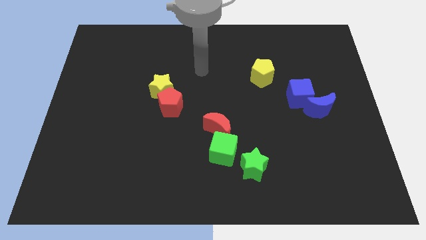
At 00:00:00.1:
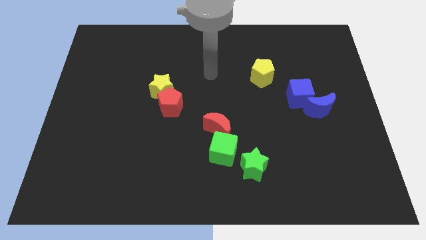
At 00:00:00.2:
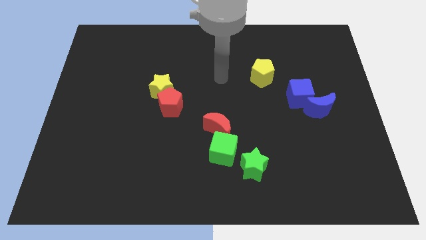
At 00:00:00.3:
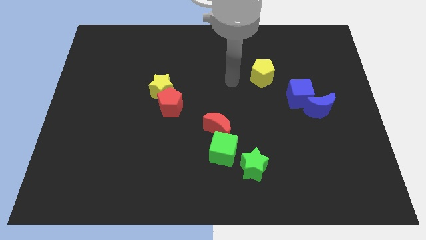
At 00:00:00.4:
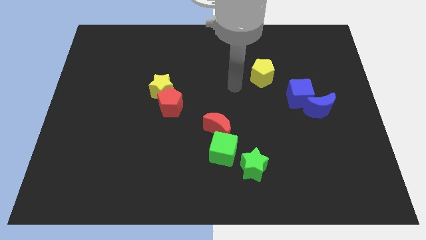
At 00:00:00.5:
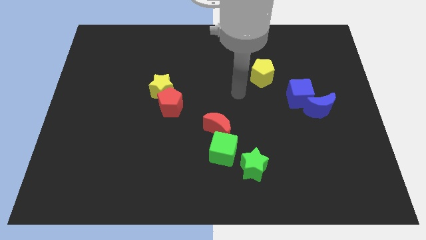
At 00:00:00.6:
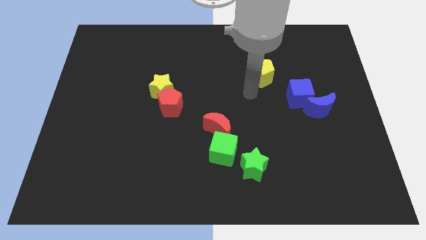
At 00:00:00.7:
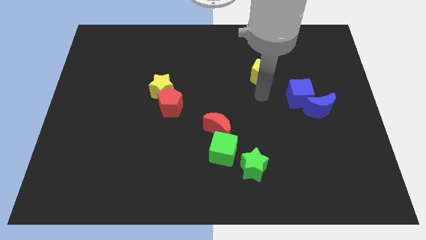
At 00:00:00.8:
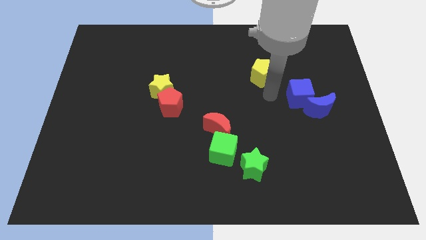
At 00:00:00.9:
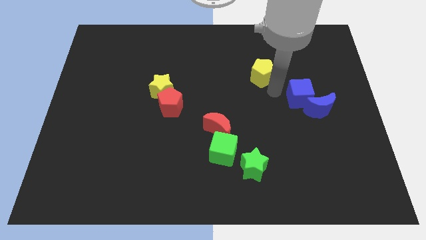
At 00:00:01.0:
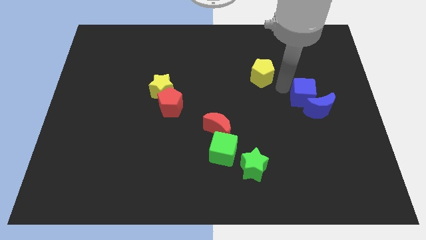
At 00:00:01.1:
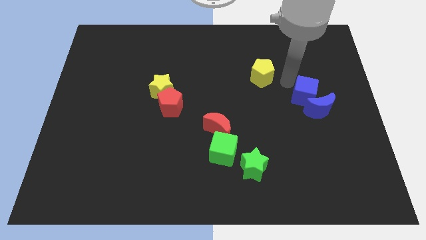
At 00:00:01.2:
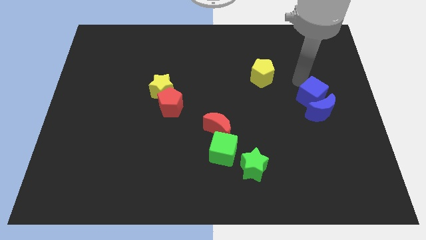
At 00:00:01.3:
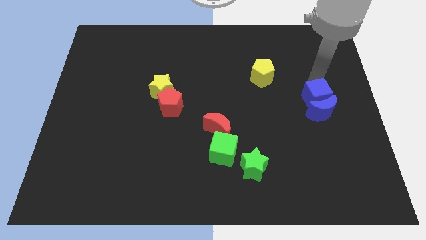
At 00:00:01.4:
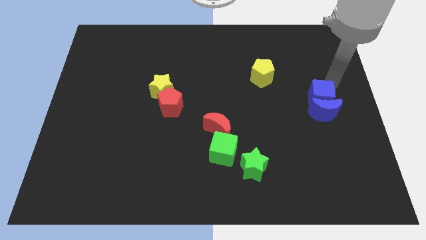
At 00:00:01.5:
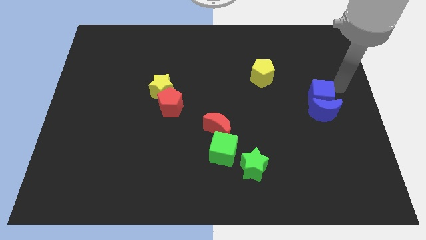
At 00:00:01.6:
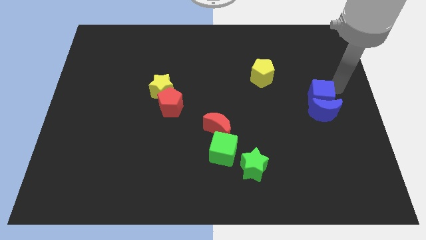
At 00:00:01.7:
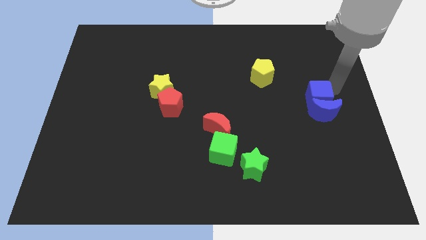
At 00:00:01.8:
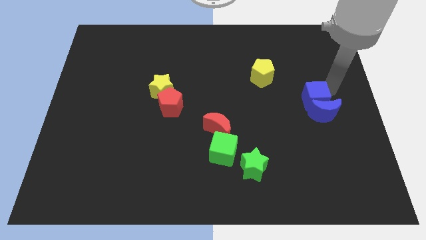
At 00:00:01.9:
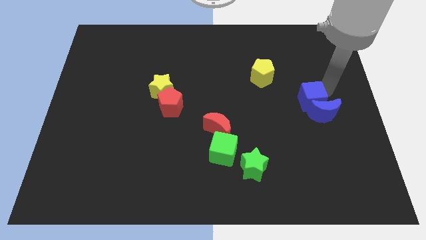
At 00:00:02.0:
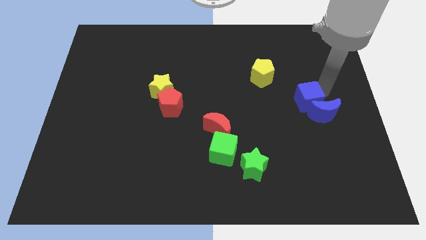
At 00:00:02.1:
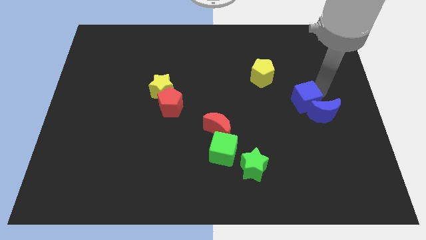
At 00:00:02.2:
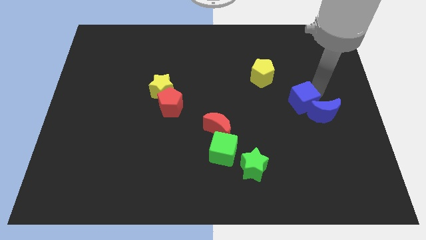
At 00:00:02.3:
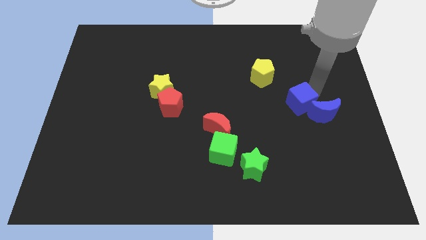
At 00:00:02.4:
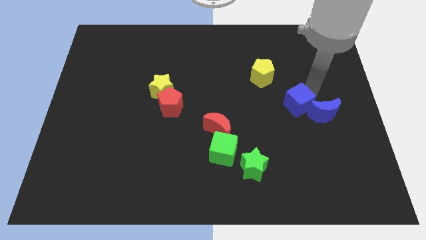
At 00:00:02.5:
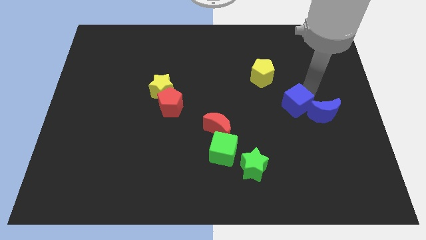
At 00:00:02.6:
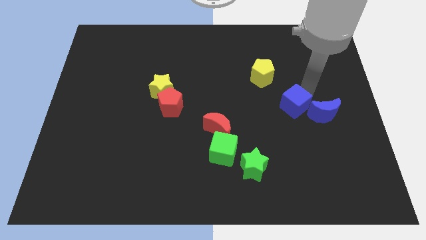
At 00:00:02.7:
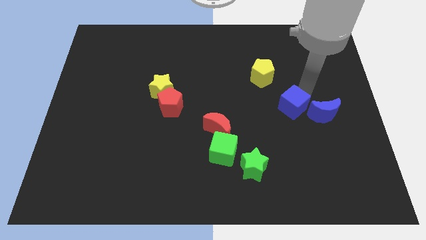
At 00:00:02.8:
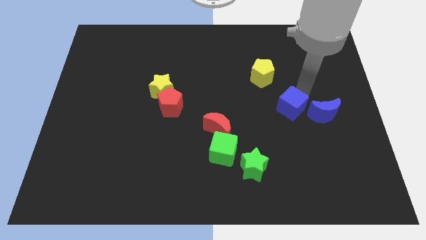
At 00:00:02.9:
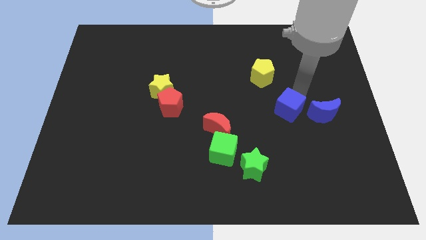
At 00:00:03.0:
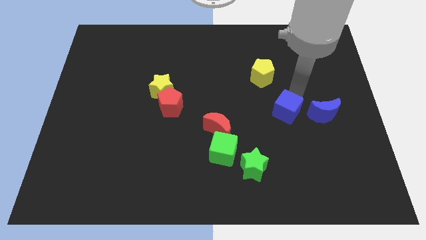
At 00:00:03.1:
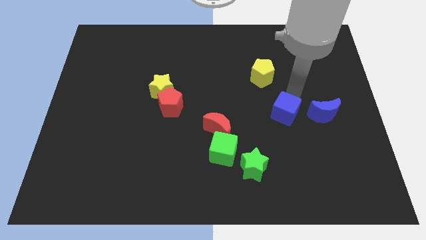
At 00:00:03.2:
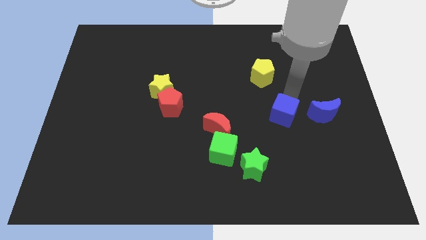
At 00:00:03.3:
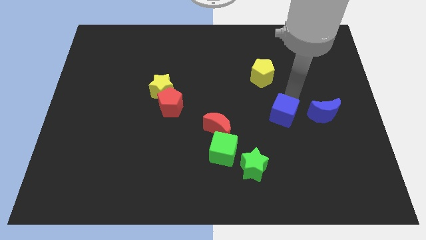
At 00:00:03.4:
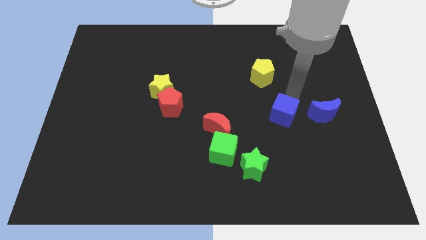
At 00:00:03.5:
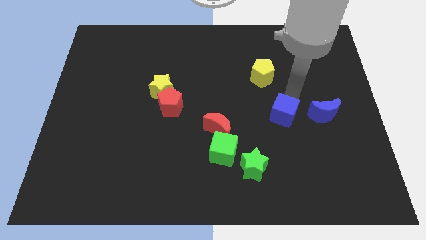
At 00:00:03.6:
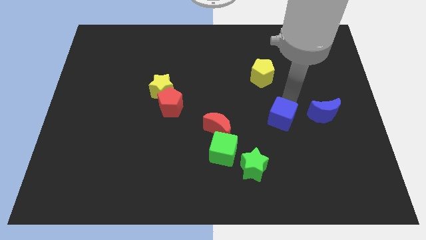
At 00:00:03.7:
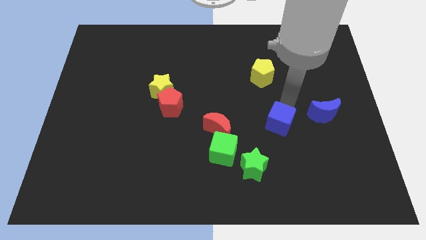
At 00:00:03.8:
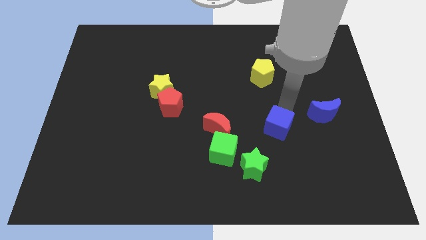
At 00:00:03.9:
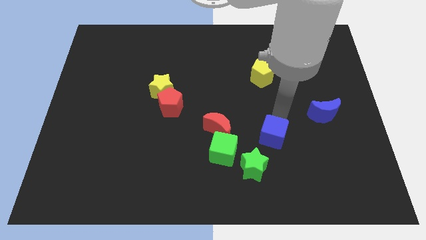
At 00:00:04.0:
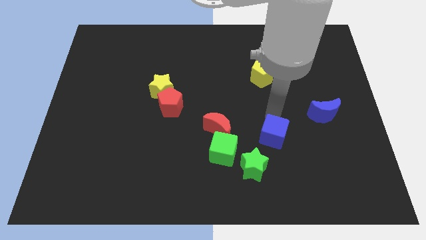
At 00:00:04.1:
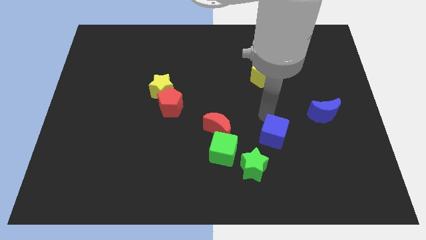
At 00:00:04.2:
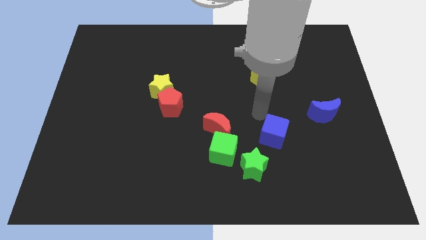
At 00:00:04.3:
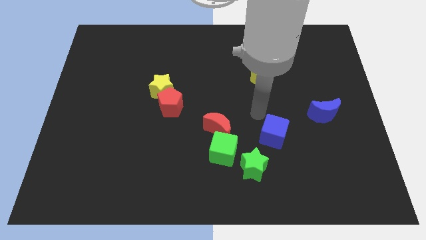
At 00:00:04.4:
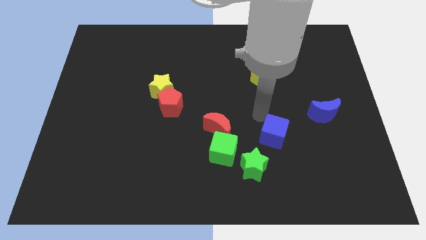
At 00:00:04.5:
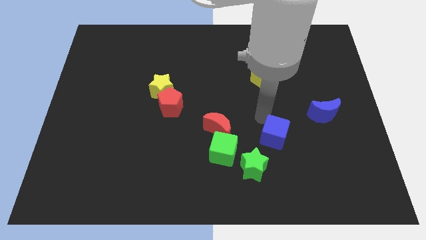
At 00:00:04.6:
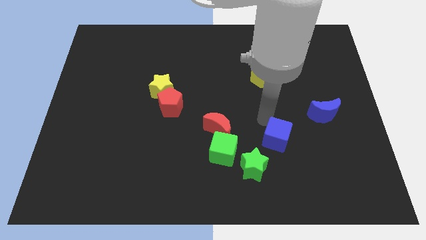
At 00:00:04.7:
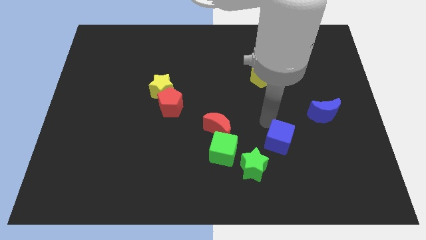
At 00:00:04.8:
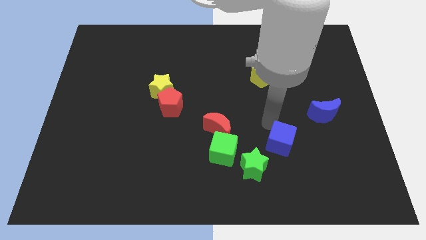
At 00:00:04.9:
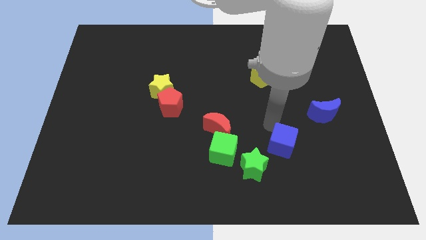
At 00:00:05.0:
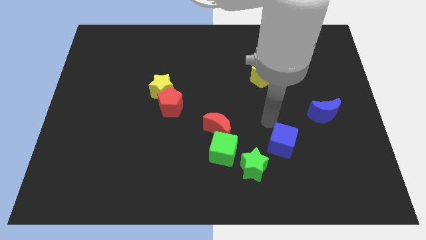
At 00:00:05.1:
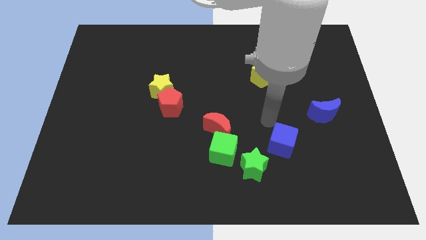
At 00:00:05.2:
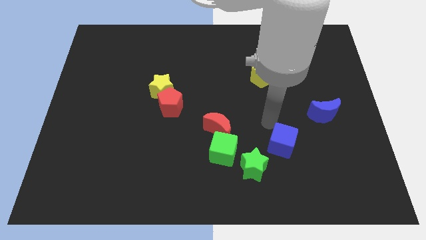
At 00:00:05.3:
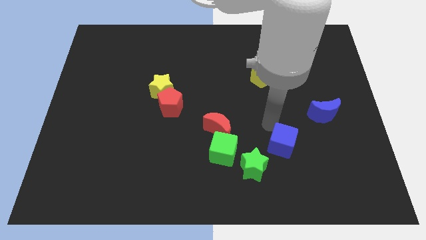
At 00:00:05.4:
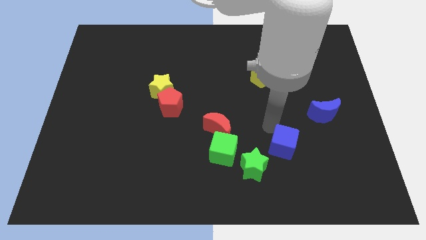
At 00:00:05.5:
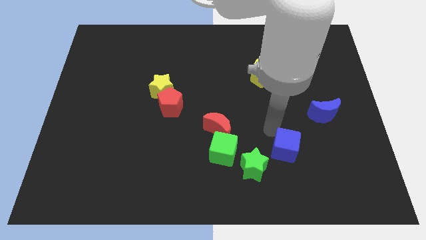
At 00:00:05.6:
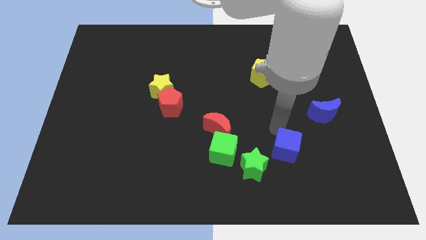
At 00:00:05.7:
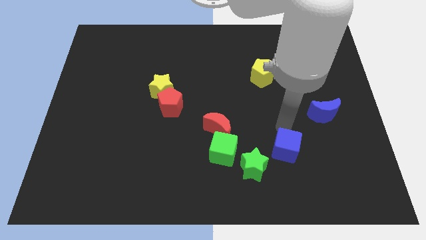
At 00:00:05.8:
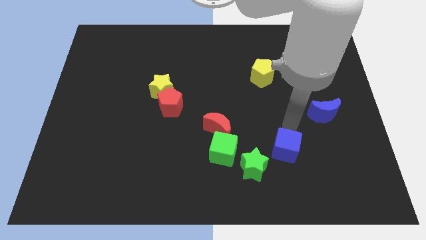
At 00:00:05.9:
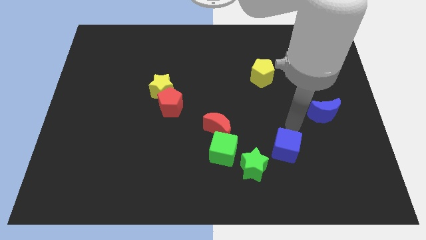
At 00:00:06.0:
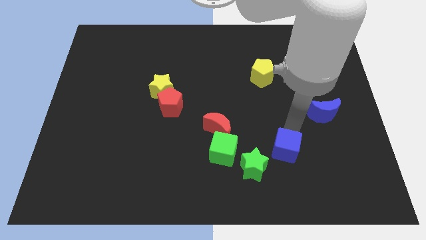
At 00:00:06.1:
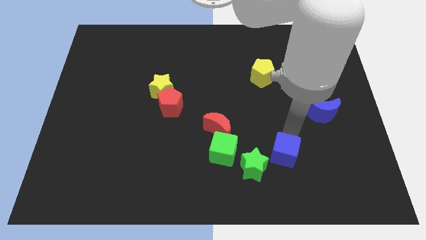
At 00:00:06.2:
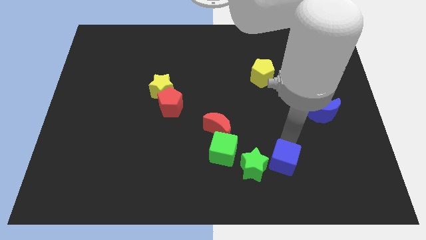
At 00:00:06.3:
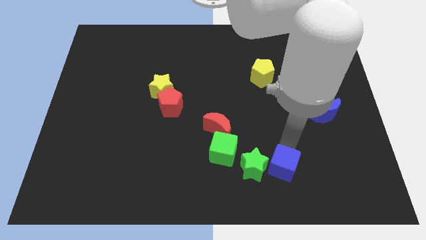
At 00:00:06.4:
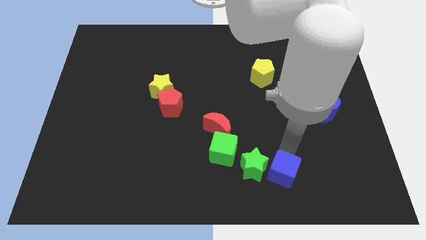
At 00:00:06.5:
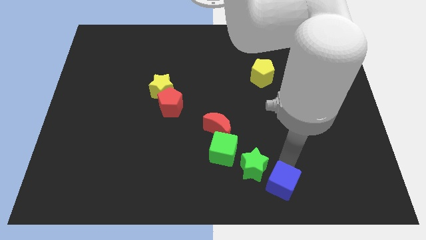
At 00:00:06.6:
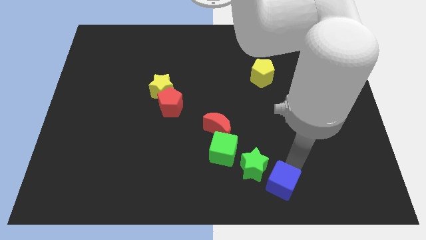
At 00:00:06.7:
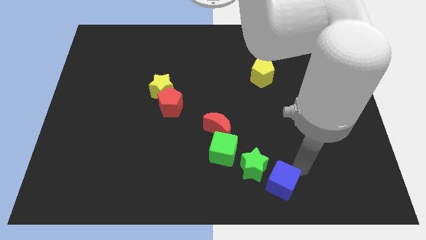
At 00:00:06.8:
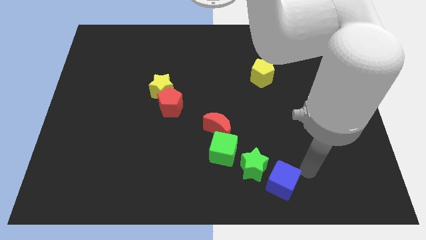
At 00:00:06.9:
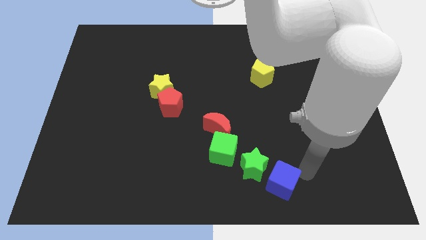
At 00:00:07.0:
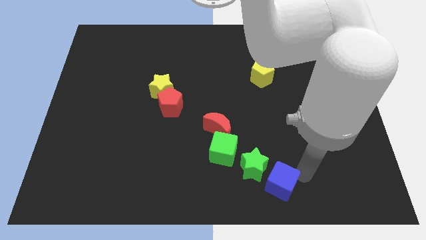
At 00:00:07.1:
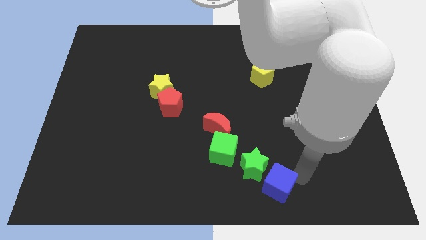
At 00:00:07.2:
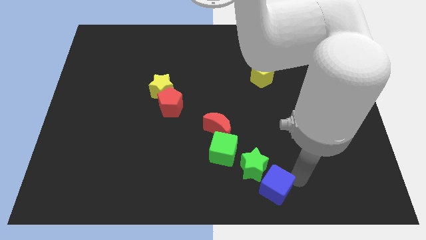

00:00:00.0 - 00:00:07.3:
push the blue cube to the bottom side
